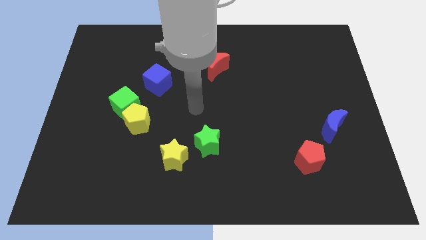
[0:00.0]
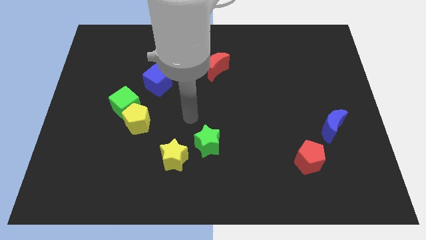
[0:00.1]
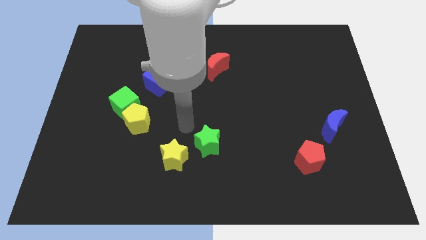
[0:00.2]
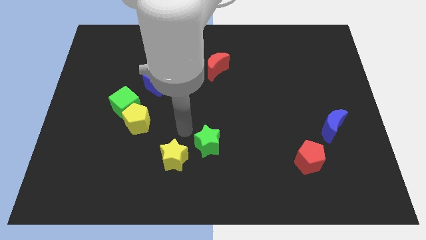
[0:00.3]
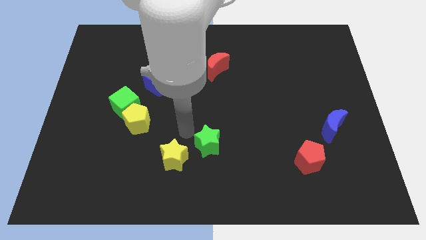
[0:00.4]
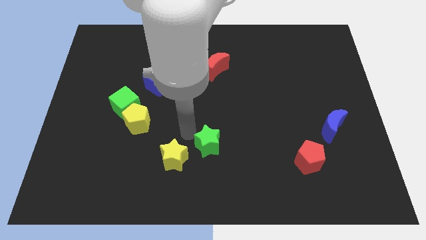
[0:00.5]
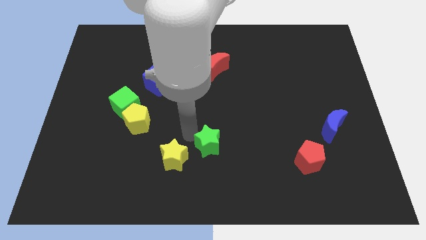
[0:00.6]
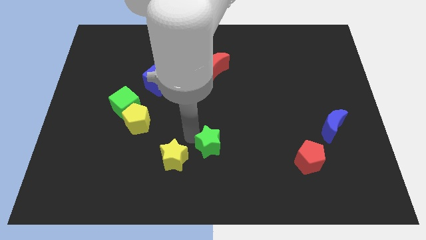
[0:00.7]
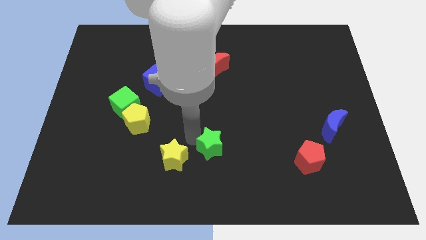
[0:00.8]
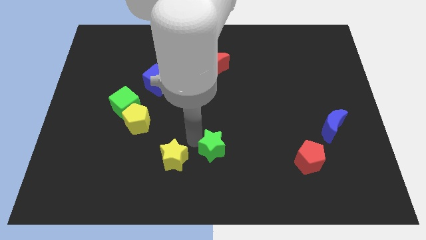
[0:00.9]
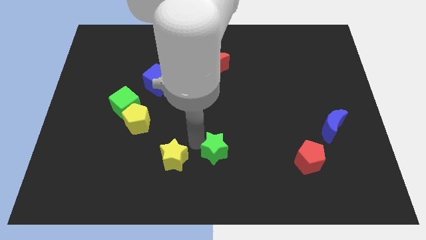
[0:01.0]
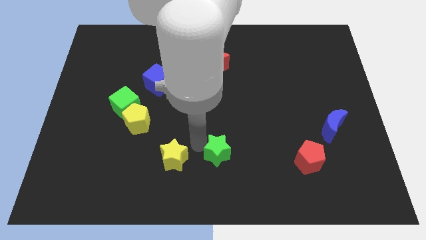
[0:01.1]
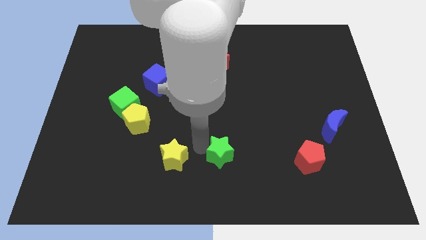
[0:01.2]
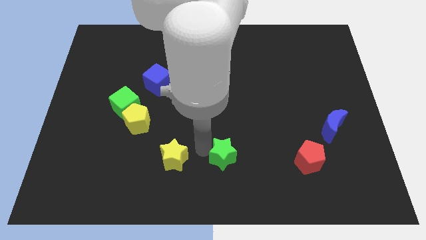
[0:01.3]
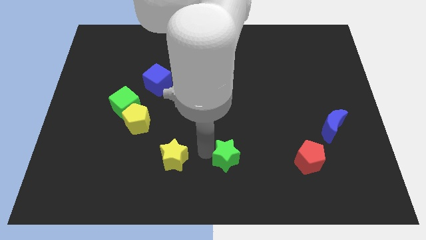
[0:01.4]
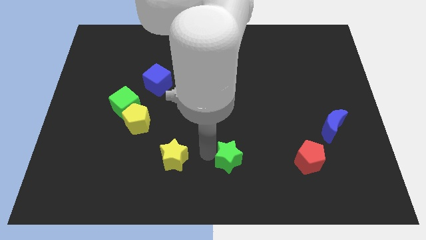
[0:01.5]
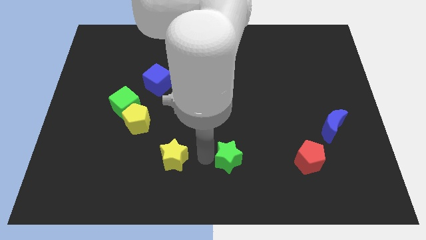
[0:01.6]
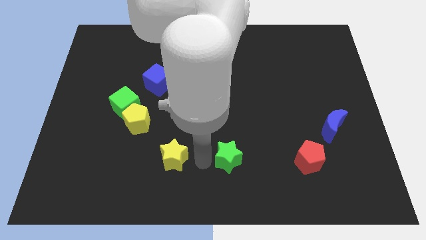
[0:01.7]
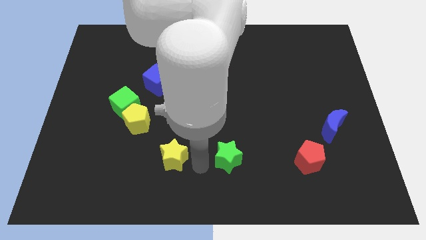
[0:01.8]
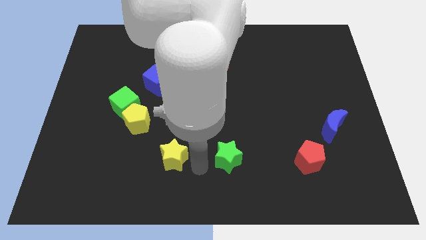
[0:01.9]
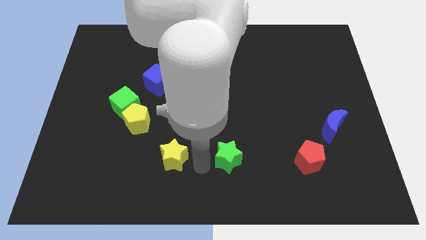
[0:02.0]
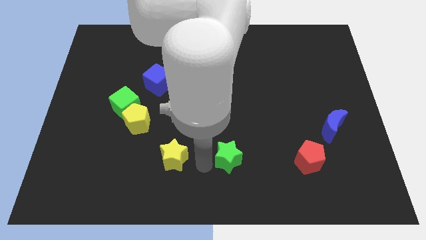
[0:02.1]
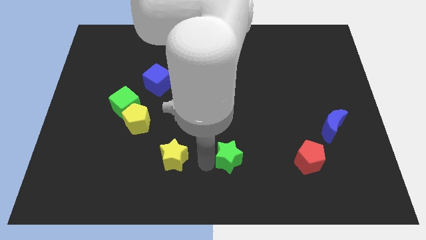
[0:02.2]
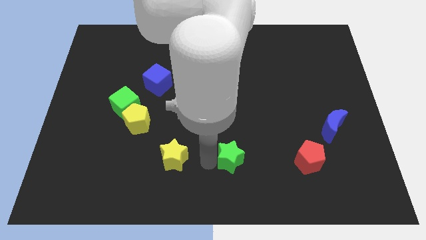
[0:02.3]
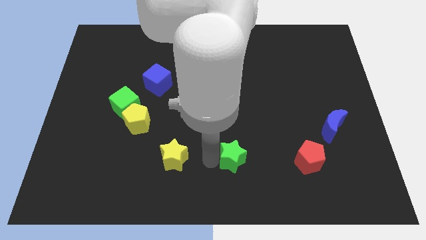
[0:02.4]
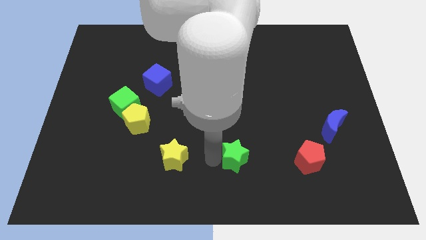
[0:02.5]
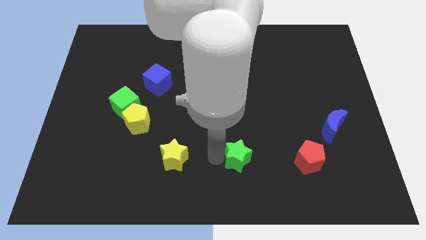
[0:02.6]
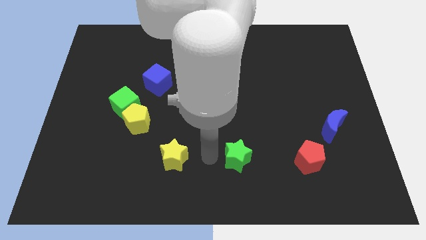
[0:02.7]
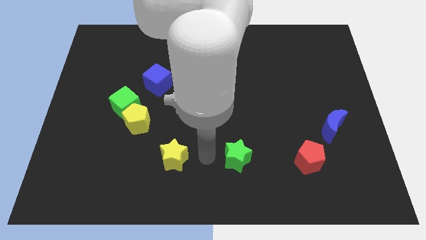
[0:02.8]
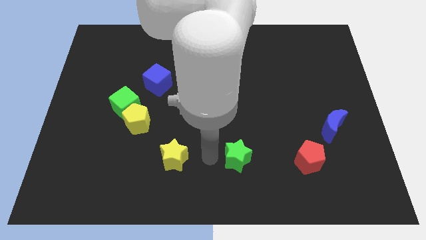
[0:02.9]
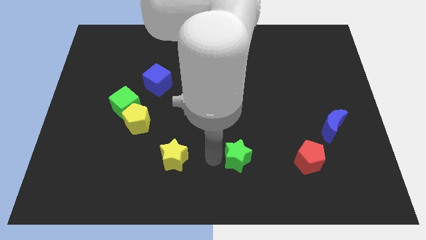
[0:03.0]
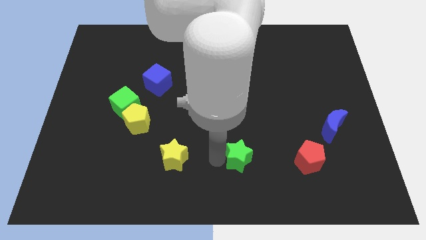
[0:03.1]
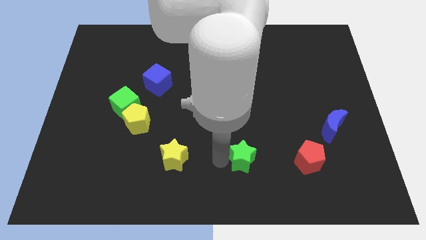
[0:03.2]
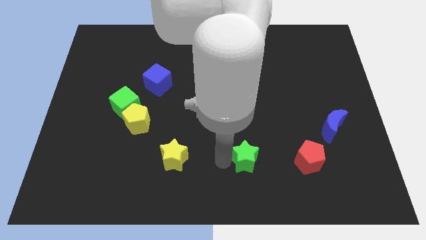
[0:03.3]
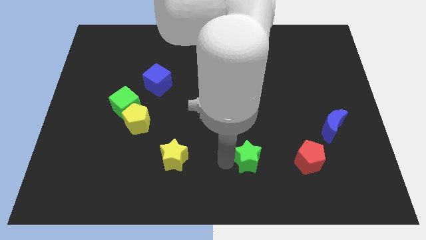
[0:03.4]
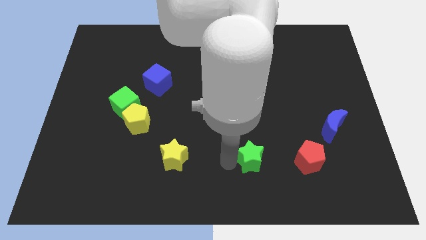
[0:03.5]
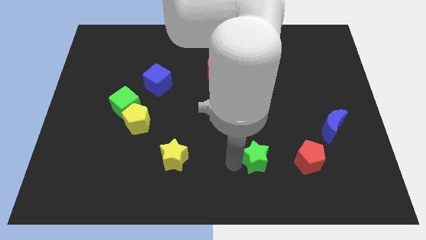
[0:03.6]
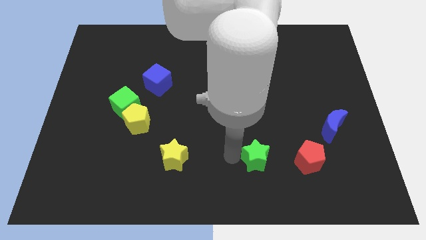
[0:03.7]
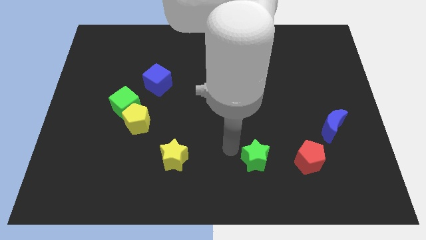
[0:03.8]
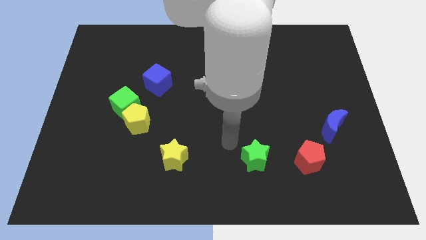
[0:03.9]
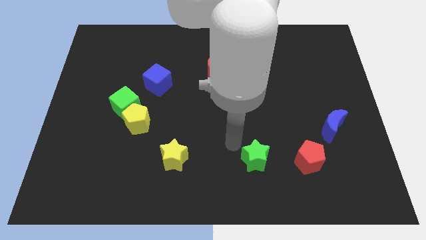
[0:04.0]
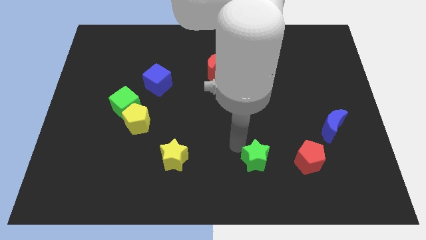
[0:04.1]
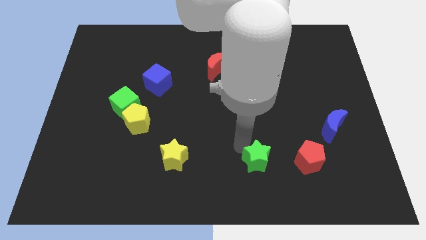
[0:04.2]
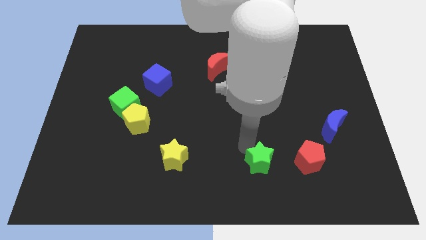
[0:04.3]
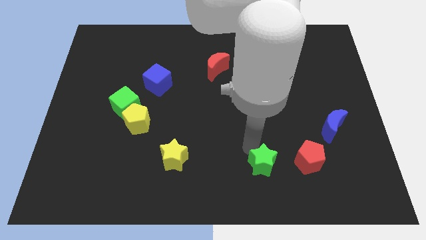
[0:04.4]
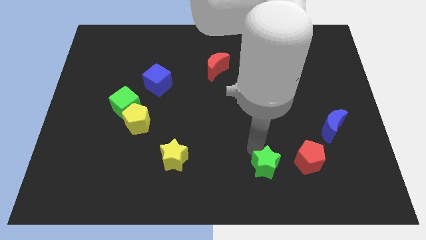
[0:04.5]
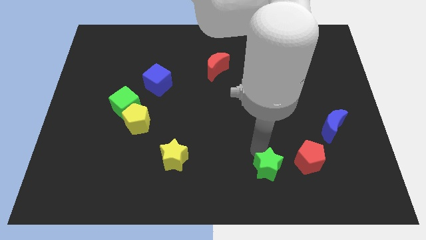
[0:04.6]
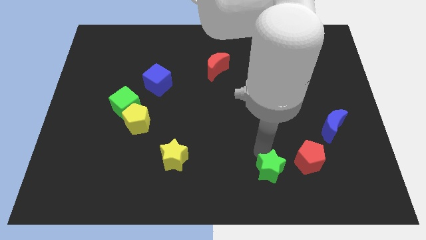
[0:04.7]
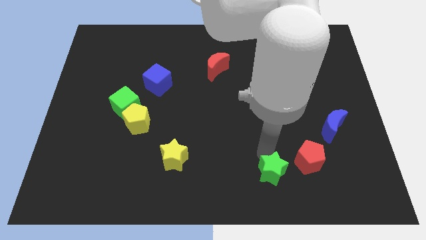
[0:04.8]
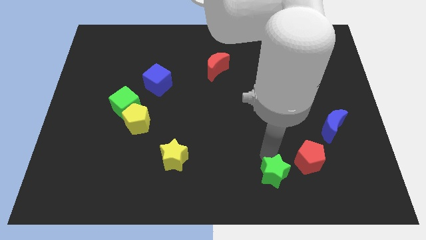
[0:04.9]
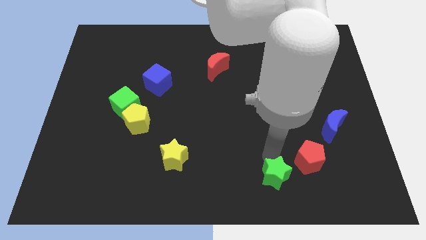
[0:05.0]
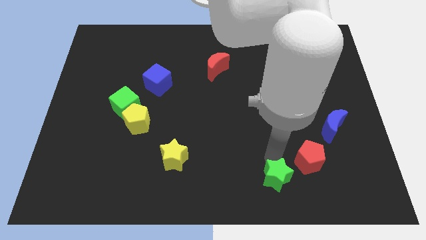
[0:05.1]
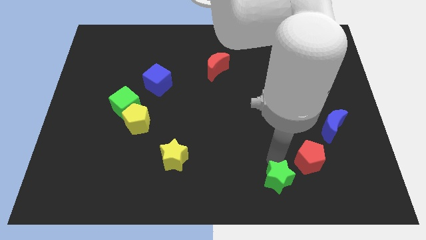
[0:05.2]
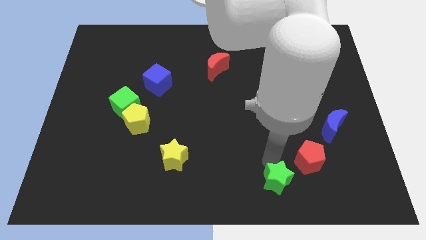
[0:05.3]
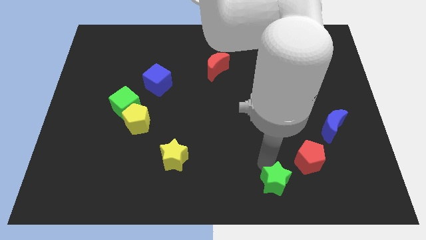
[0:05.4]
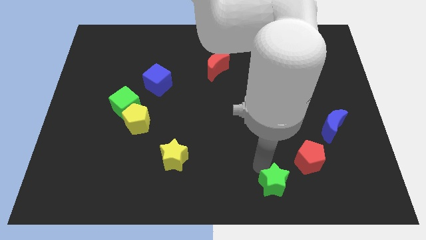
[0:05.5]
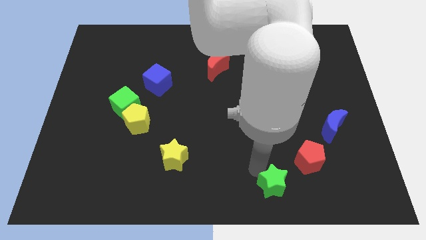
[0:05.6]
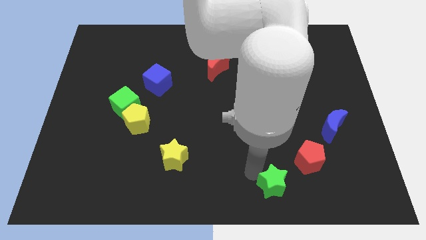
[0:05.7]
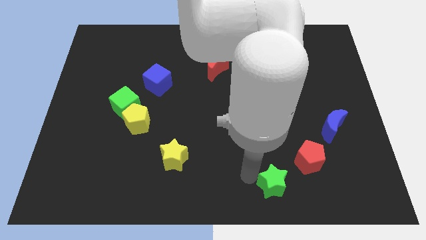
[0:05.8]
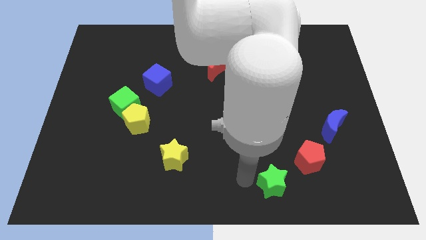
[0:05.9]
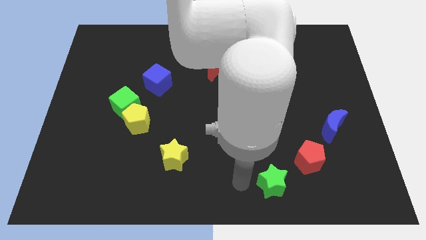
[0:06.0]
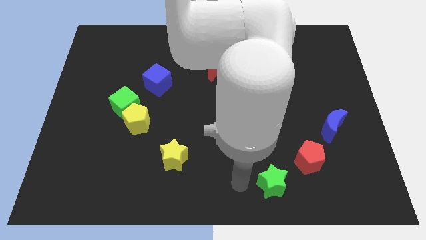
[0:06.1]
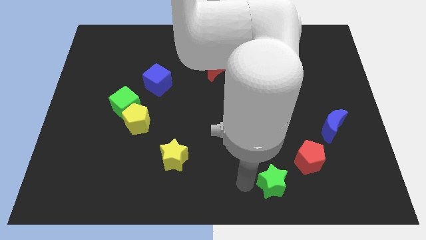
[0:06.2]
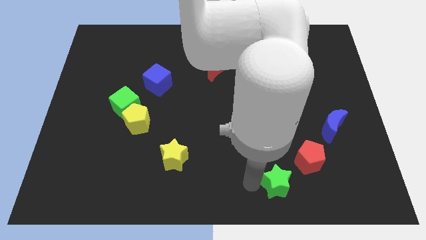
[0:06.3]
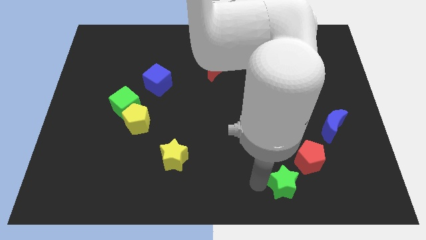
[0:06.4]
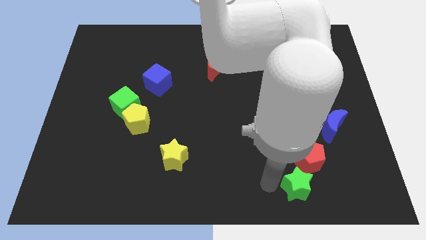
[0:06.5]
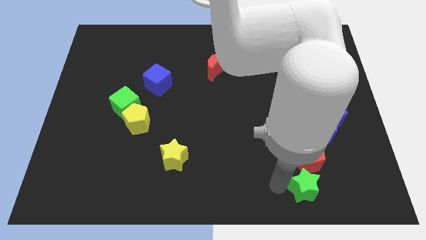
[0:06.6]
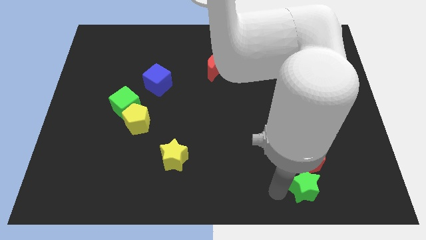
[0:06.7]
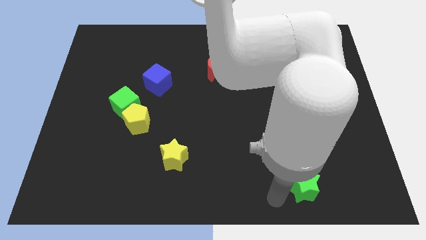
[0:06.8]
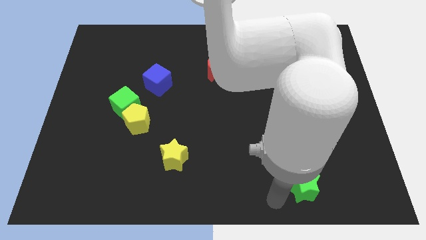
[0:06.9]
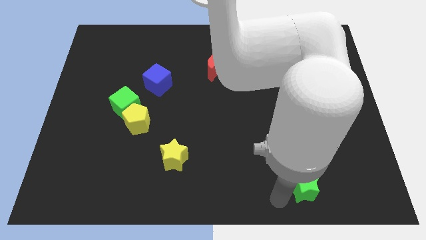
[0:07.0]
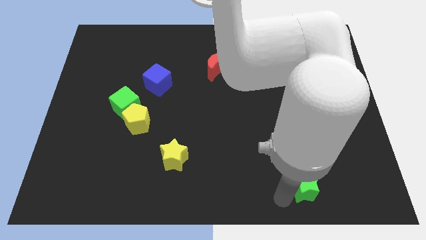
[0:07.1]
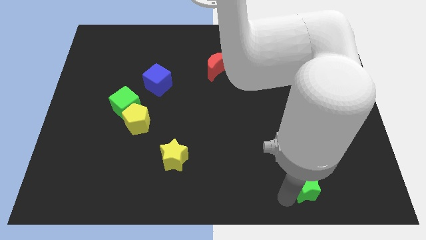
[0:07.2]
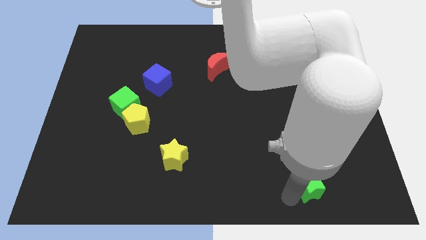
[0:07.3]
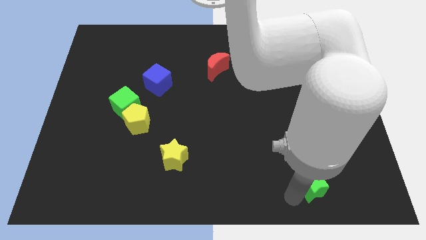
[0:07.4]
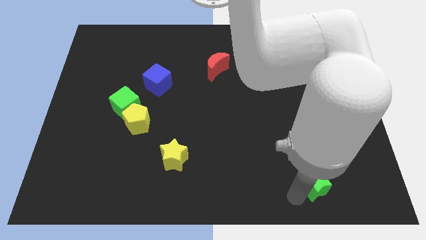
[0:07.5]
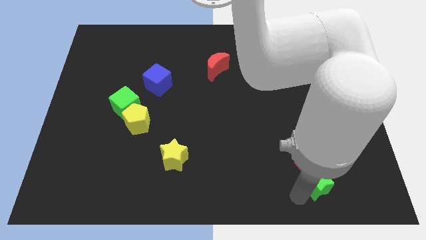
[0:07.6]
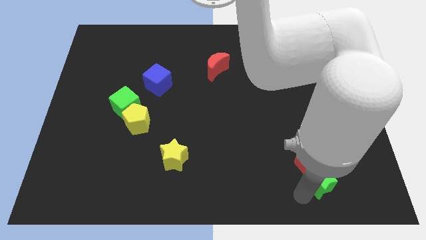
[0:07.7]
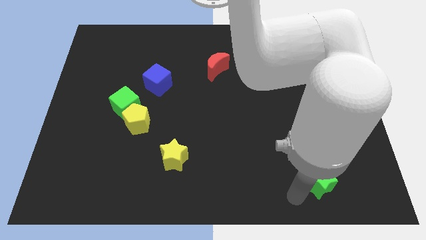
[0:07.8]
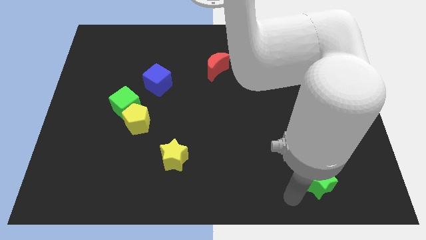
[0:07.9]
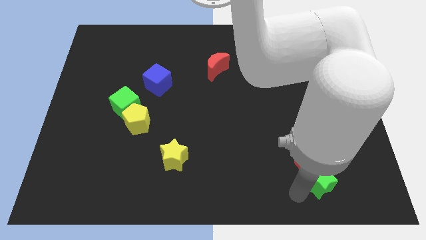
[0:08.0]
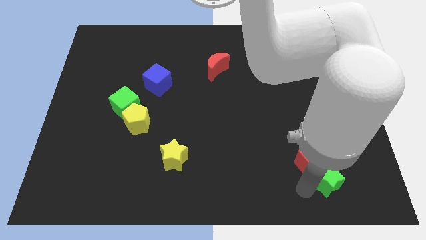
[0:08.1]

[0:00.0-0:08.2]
move the green star to the bottom side of the blue moon
